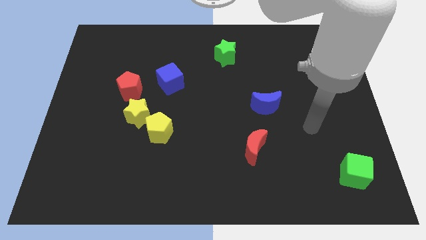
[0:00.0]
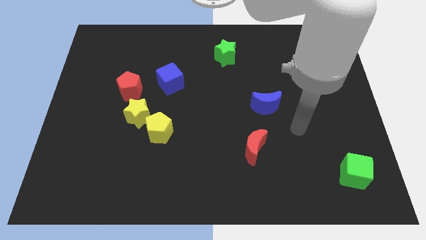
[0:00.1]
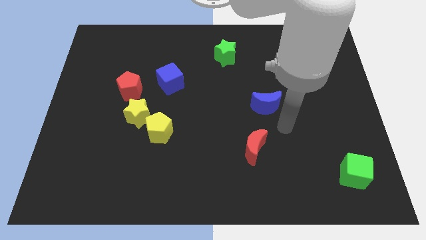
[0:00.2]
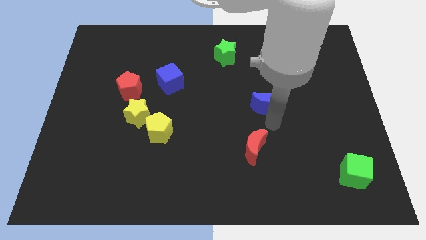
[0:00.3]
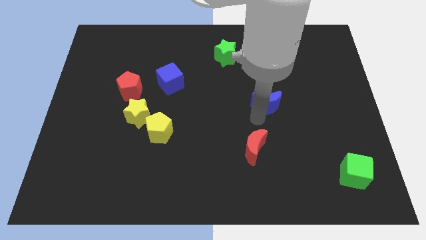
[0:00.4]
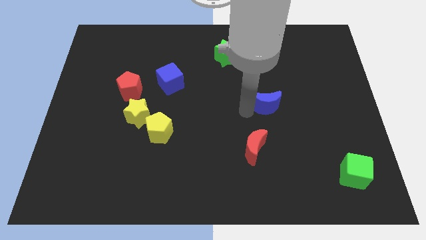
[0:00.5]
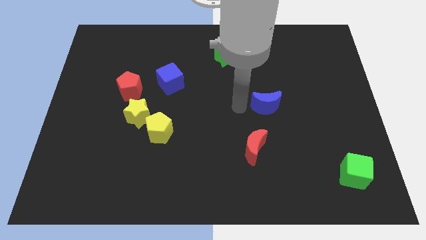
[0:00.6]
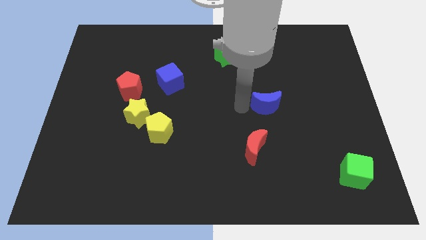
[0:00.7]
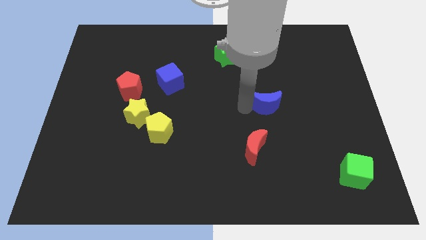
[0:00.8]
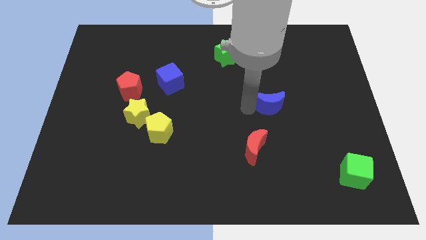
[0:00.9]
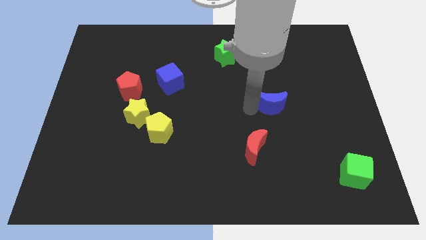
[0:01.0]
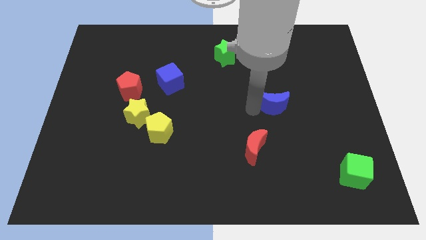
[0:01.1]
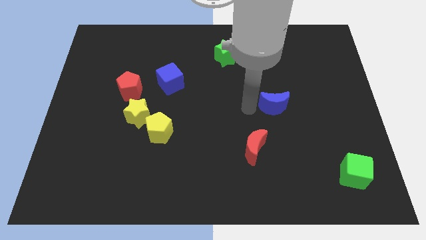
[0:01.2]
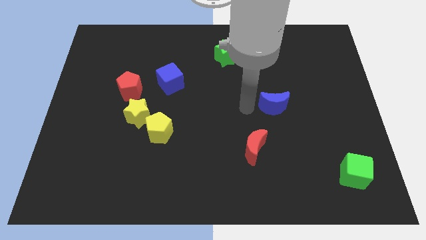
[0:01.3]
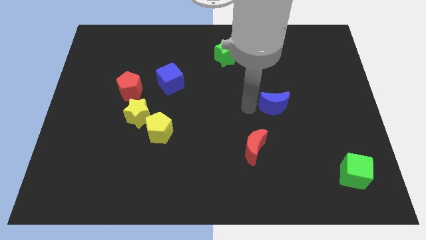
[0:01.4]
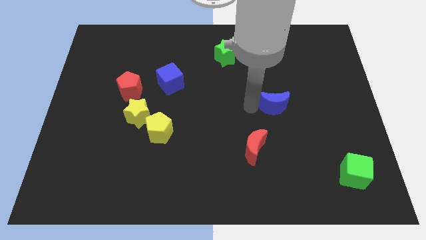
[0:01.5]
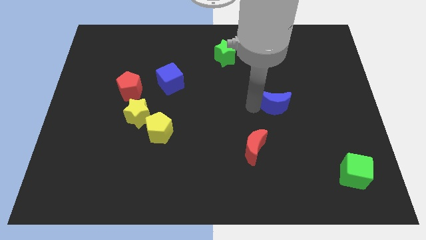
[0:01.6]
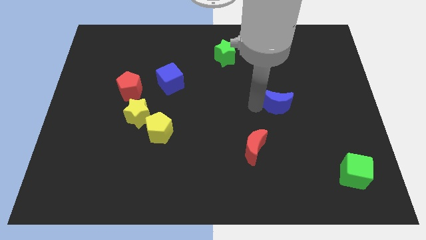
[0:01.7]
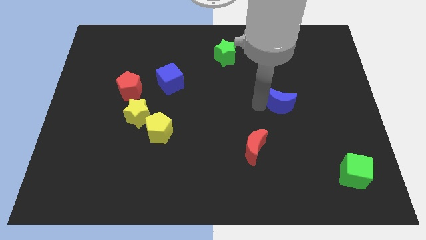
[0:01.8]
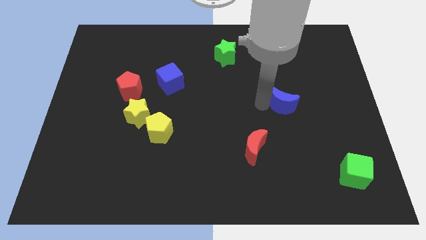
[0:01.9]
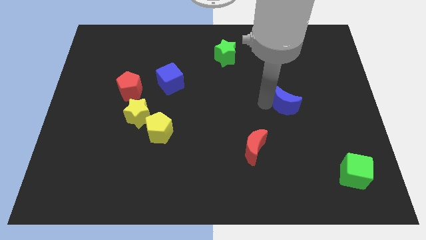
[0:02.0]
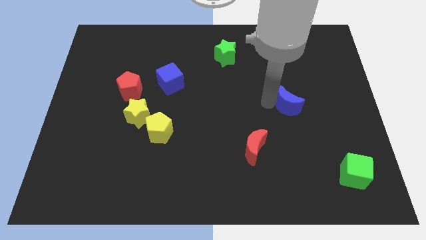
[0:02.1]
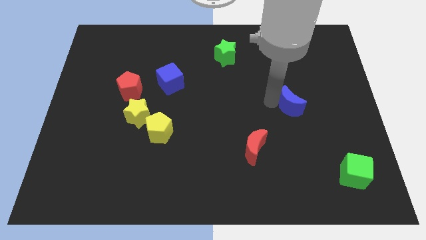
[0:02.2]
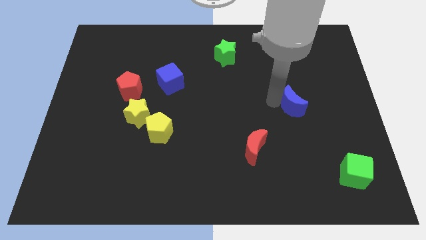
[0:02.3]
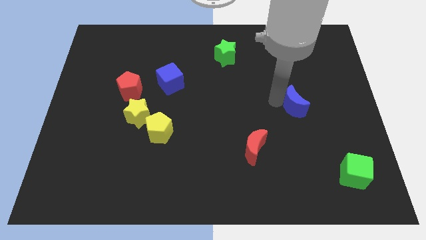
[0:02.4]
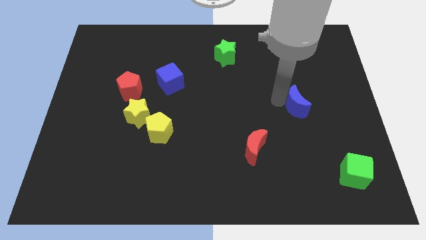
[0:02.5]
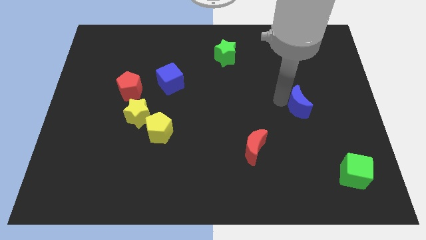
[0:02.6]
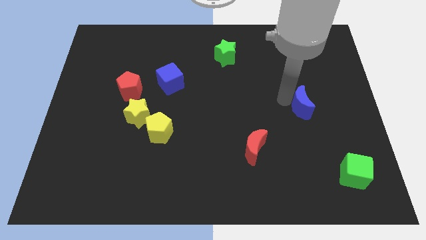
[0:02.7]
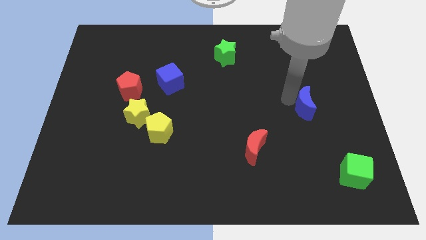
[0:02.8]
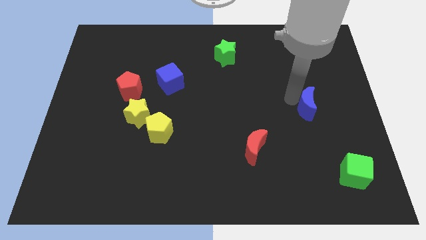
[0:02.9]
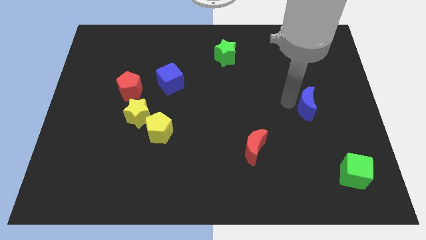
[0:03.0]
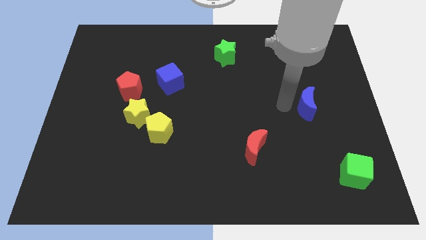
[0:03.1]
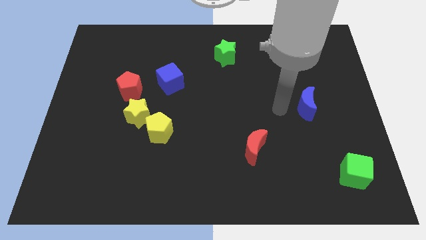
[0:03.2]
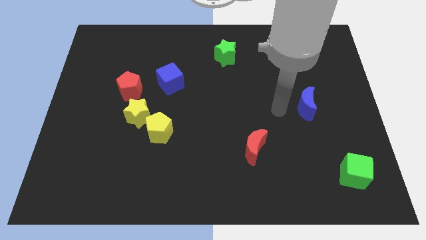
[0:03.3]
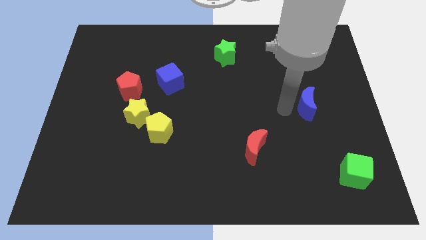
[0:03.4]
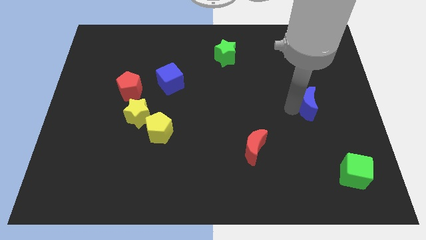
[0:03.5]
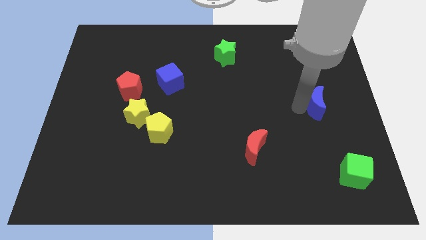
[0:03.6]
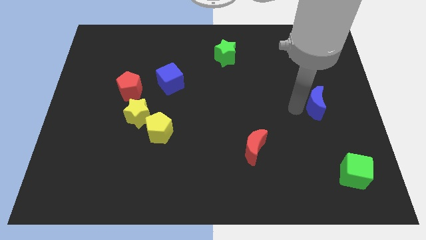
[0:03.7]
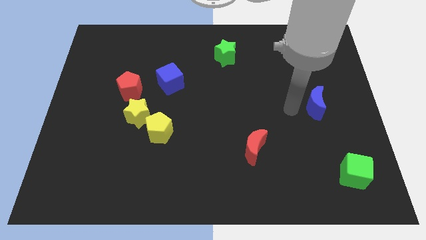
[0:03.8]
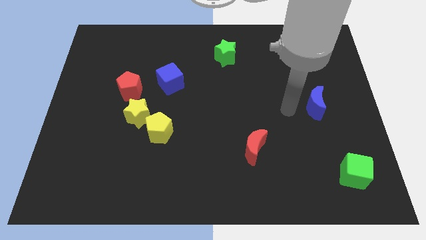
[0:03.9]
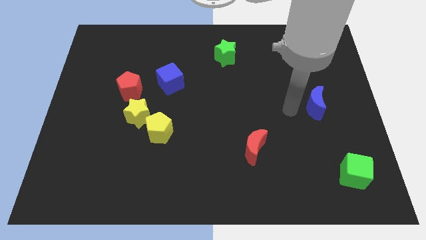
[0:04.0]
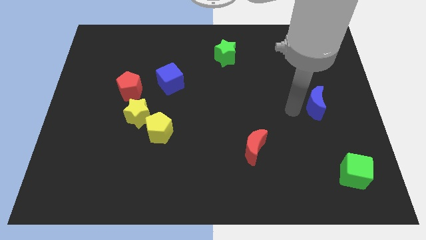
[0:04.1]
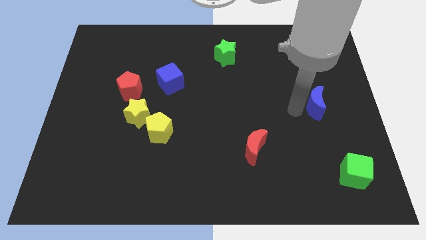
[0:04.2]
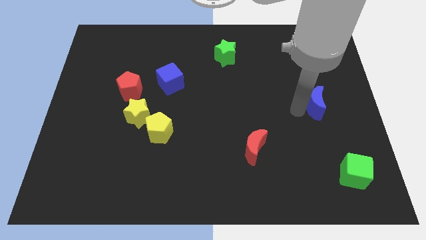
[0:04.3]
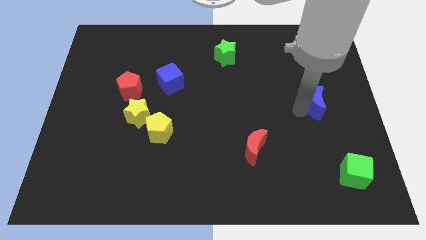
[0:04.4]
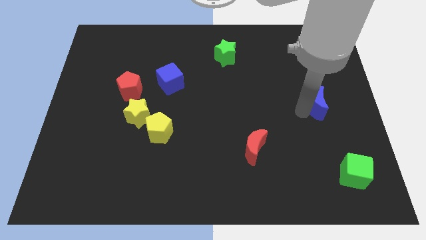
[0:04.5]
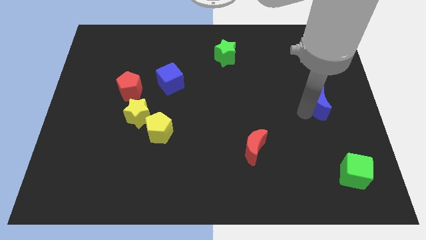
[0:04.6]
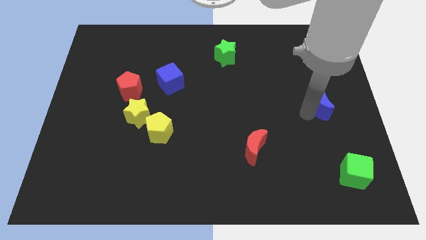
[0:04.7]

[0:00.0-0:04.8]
push the blue moon to the right side

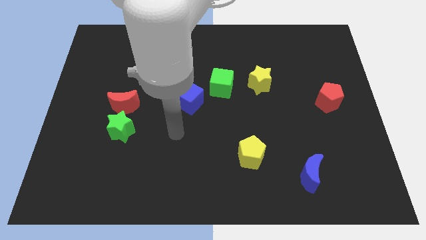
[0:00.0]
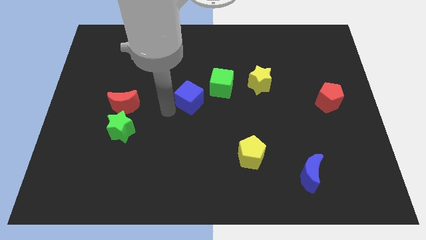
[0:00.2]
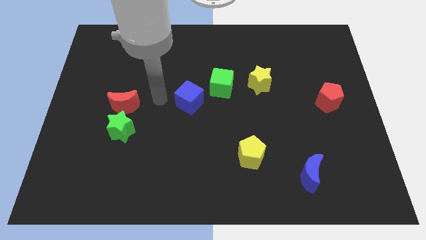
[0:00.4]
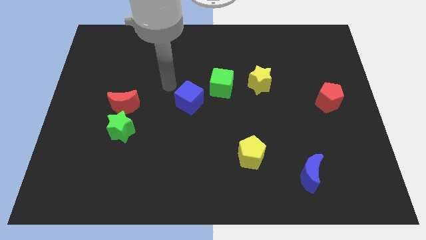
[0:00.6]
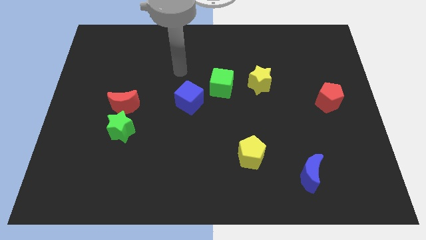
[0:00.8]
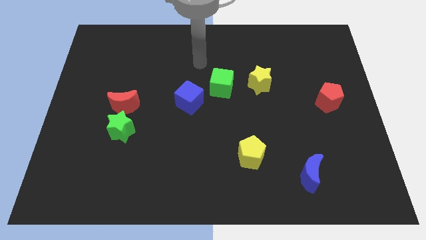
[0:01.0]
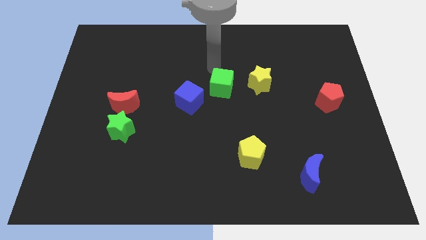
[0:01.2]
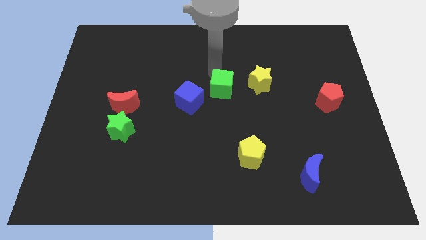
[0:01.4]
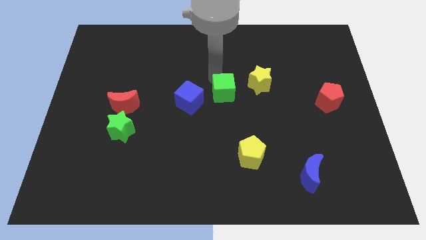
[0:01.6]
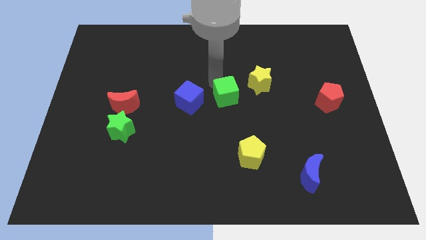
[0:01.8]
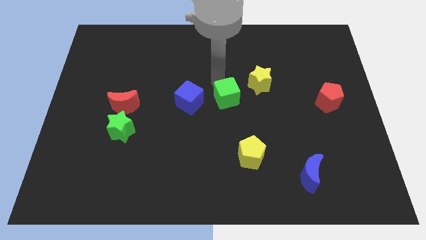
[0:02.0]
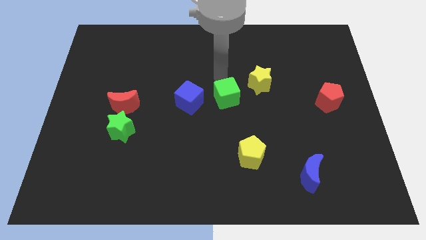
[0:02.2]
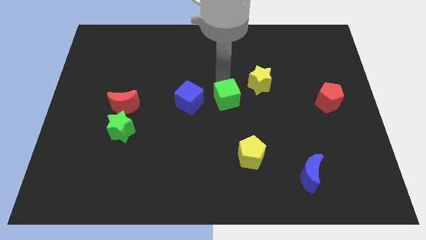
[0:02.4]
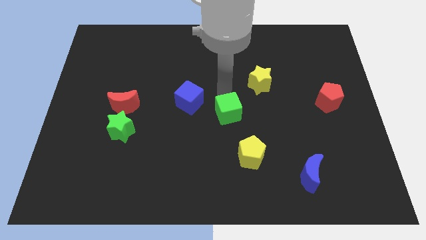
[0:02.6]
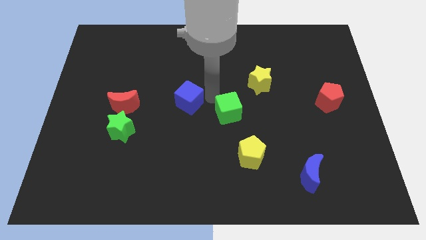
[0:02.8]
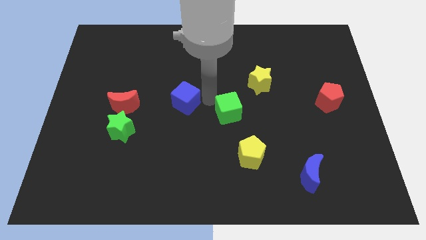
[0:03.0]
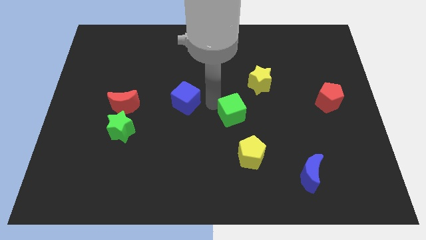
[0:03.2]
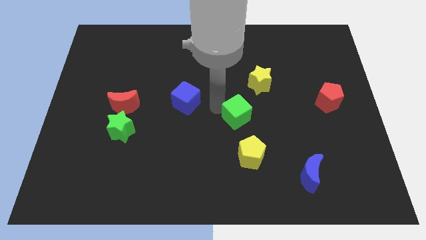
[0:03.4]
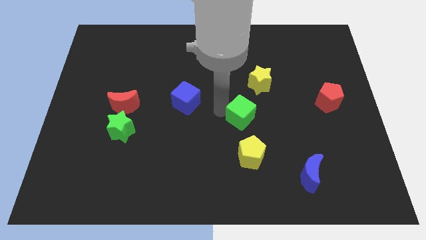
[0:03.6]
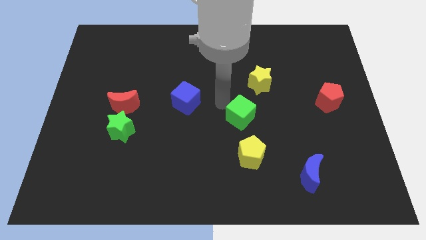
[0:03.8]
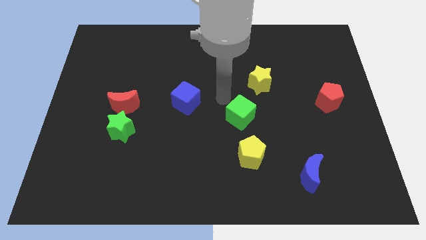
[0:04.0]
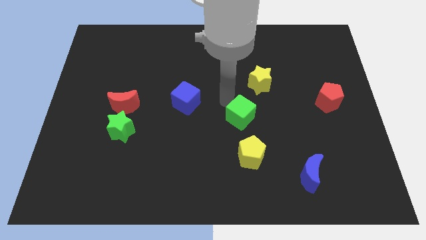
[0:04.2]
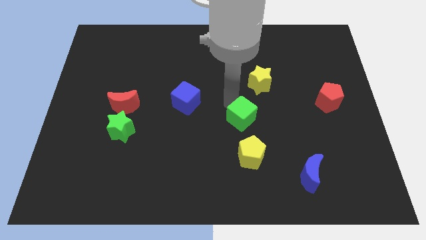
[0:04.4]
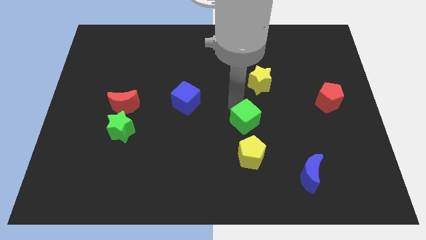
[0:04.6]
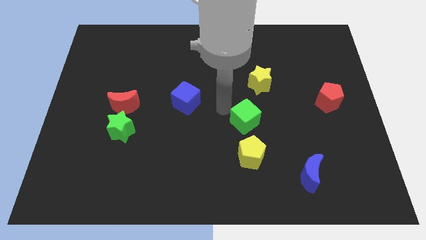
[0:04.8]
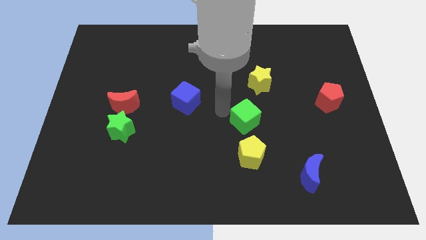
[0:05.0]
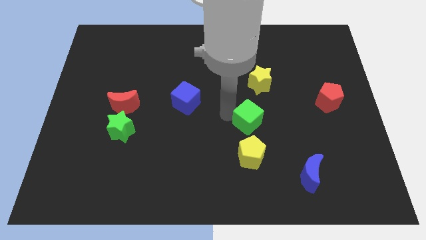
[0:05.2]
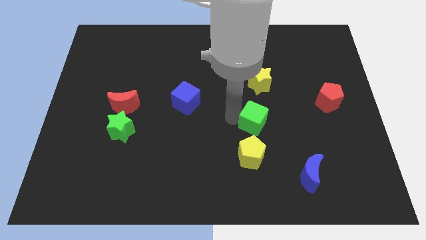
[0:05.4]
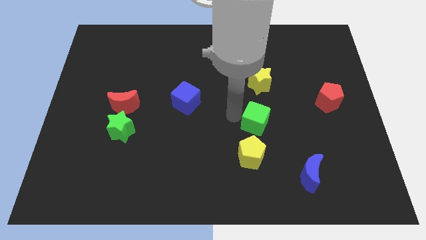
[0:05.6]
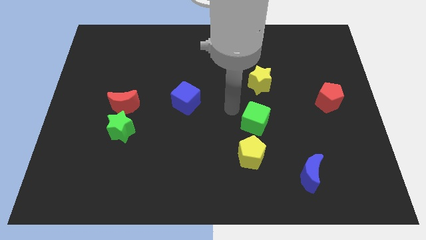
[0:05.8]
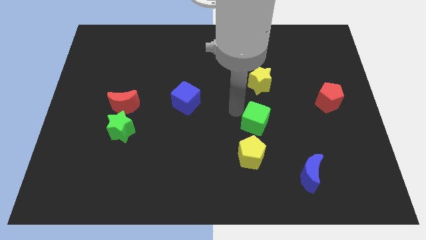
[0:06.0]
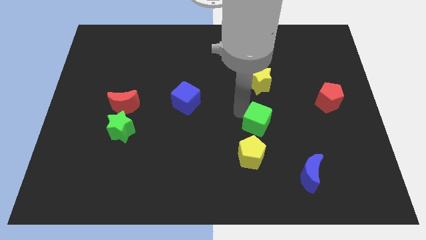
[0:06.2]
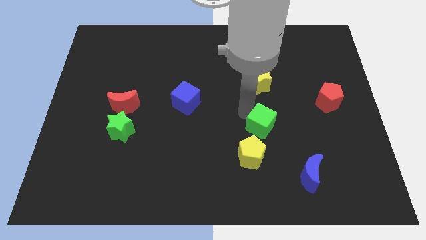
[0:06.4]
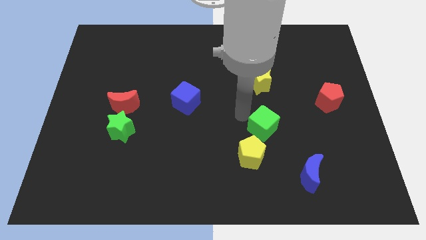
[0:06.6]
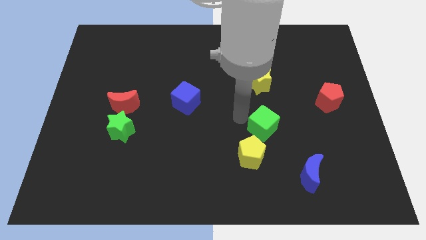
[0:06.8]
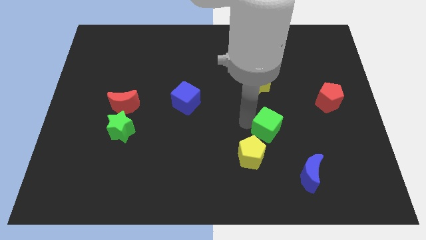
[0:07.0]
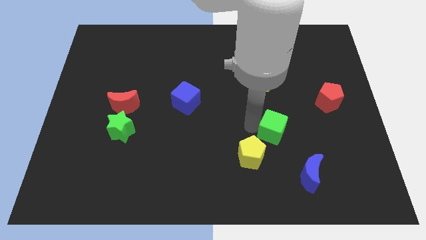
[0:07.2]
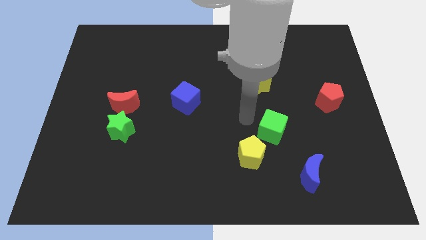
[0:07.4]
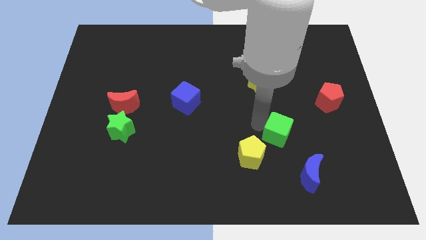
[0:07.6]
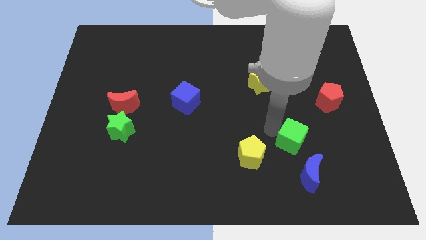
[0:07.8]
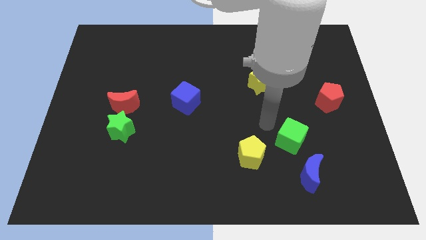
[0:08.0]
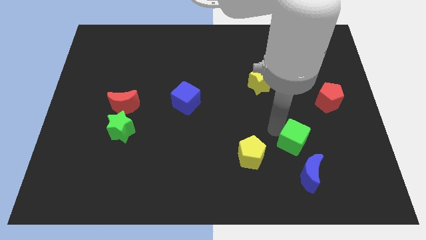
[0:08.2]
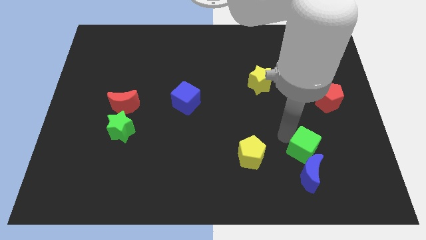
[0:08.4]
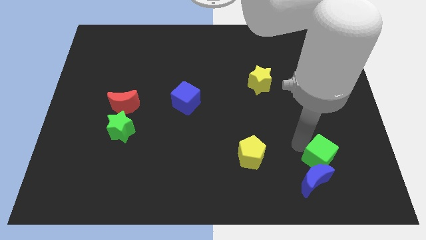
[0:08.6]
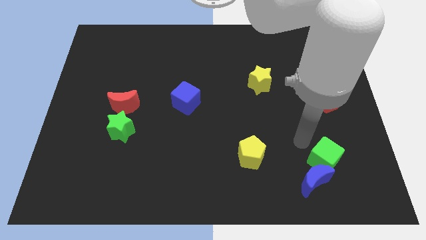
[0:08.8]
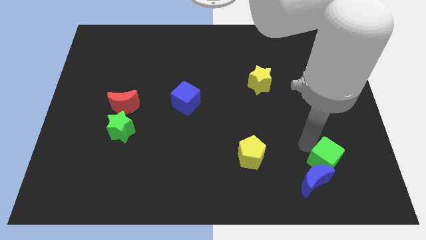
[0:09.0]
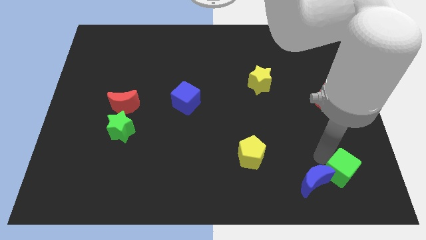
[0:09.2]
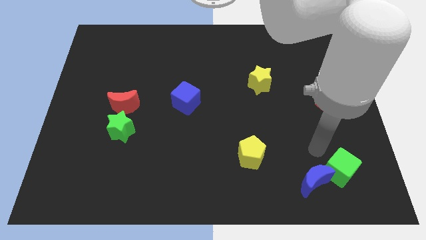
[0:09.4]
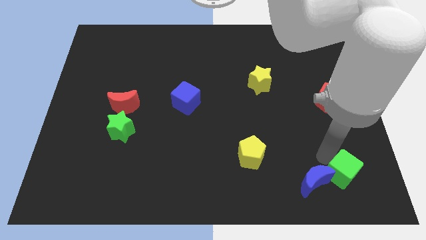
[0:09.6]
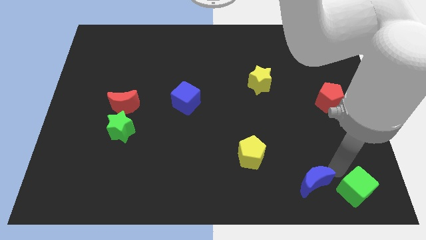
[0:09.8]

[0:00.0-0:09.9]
slide the green cube to the bottom right of the board
